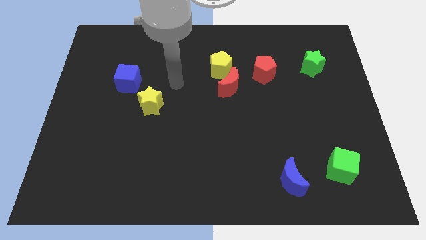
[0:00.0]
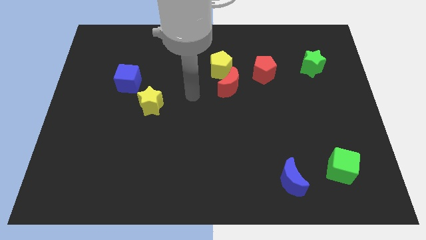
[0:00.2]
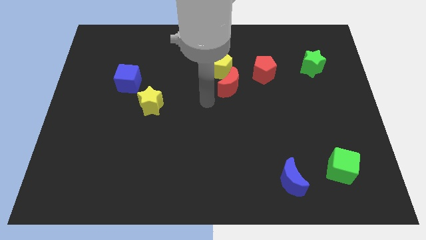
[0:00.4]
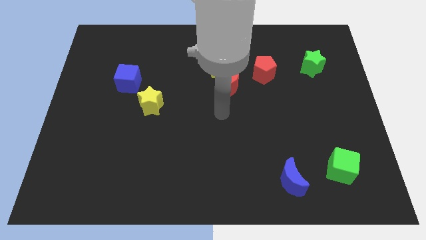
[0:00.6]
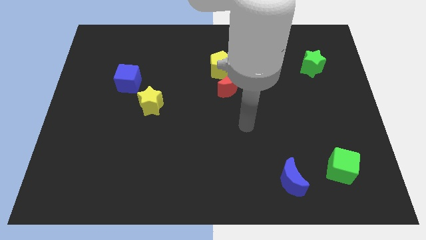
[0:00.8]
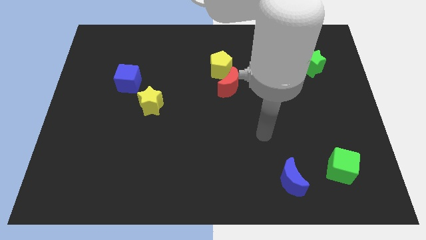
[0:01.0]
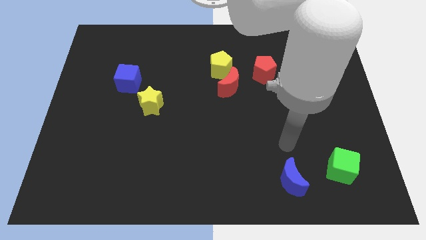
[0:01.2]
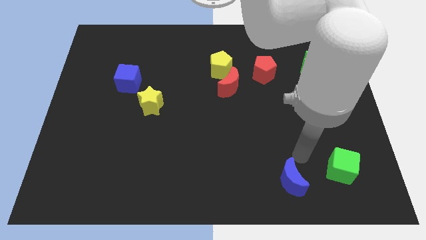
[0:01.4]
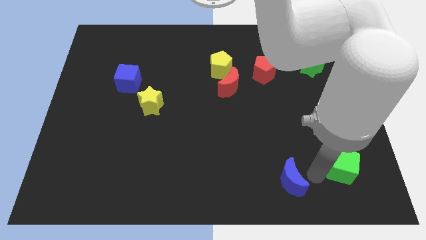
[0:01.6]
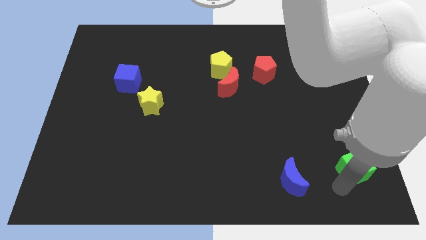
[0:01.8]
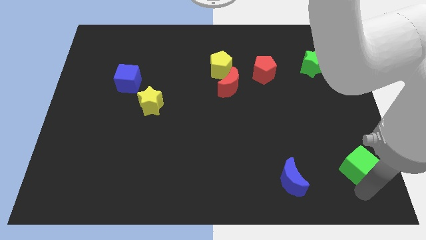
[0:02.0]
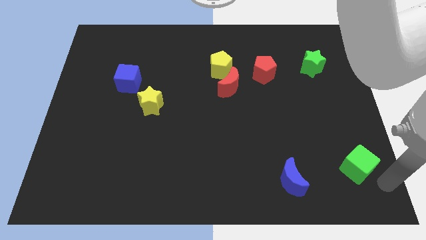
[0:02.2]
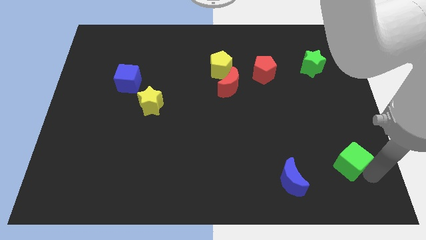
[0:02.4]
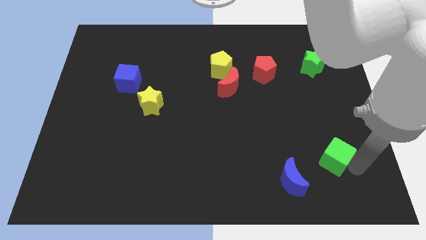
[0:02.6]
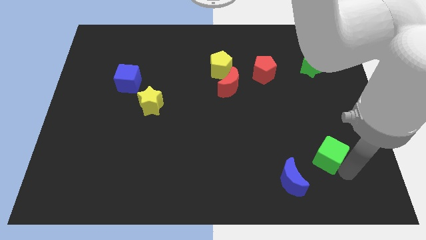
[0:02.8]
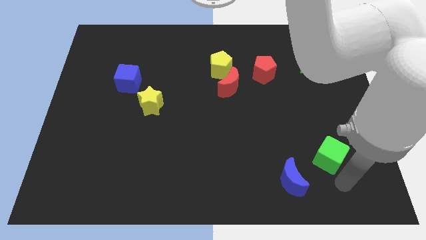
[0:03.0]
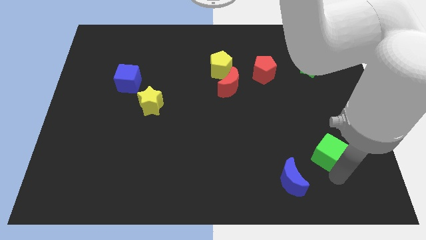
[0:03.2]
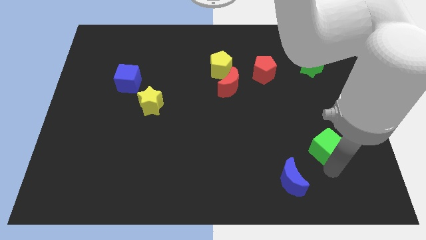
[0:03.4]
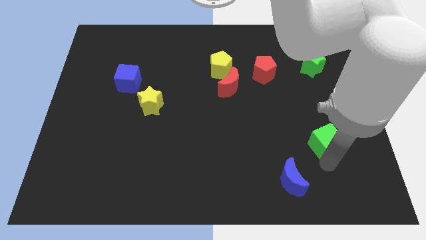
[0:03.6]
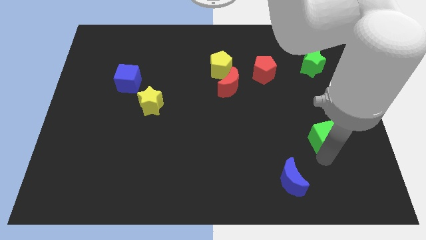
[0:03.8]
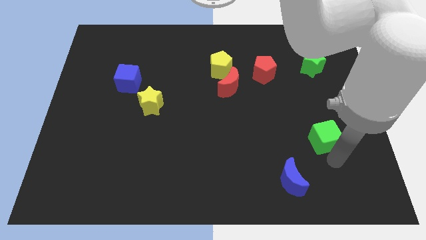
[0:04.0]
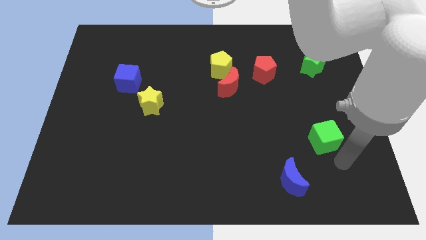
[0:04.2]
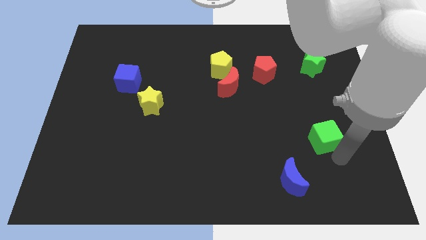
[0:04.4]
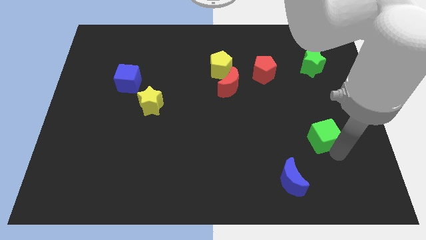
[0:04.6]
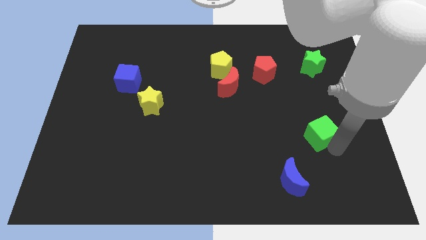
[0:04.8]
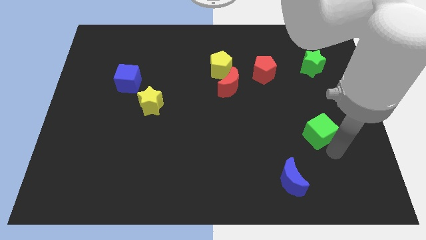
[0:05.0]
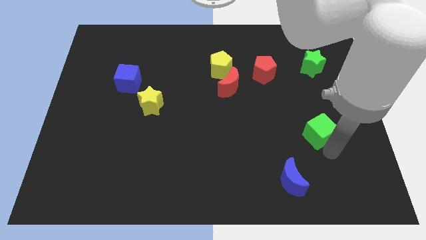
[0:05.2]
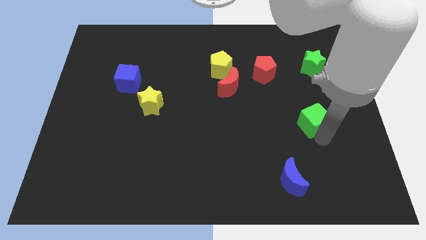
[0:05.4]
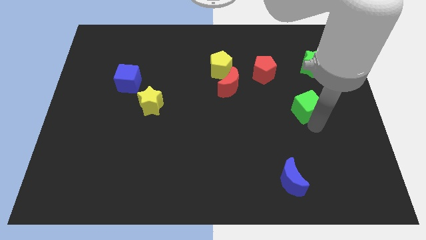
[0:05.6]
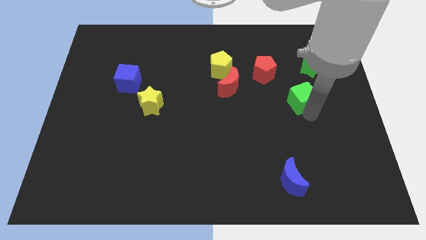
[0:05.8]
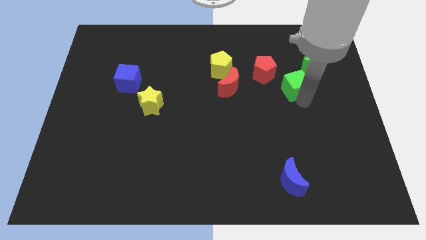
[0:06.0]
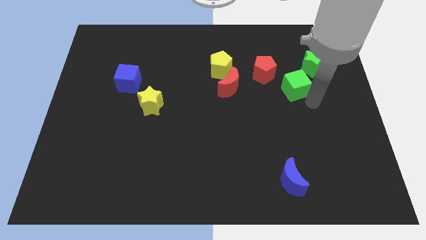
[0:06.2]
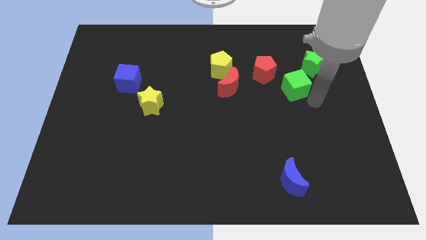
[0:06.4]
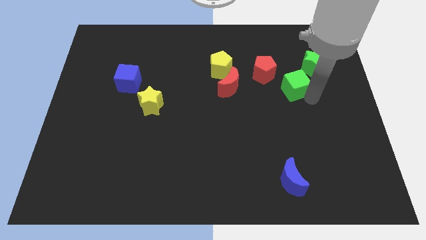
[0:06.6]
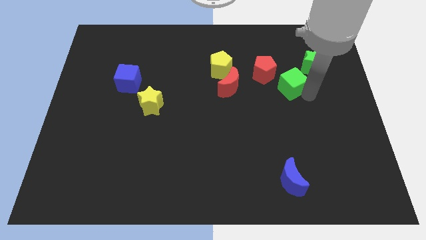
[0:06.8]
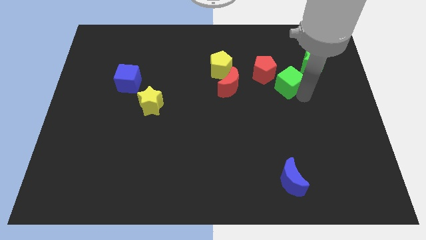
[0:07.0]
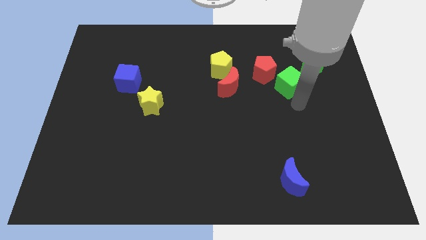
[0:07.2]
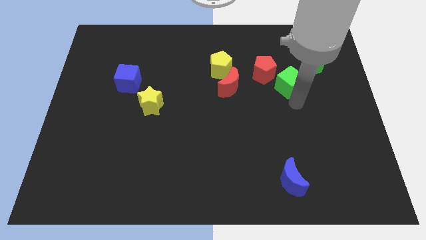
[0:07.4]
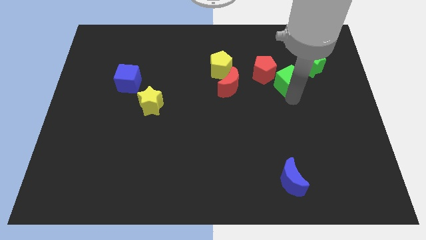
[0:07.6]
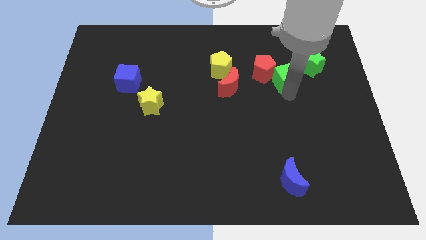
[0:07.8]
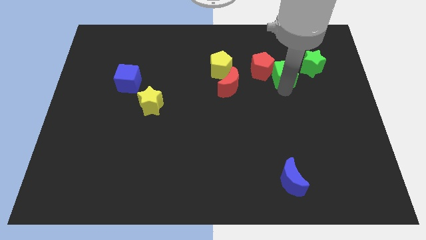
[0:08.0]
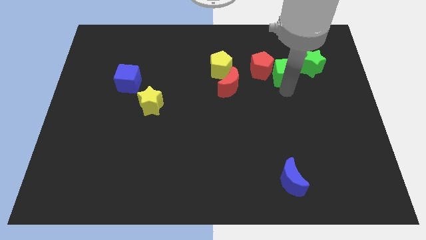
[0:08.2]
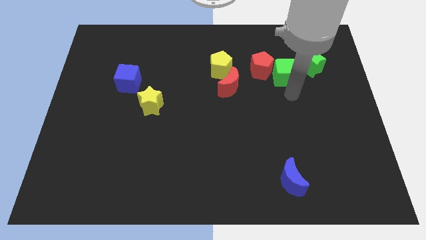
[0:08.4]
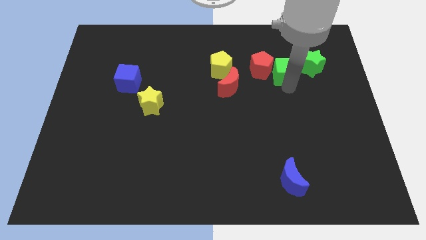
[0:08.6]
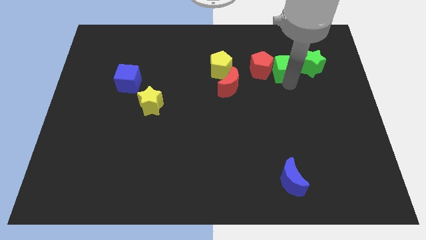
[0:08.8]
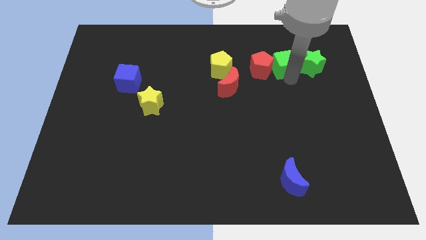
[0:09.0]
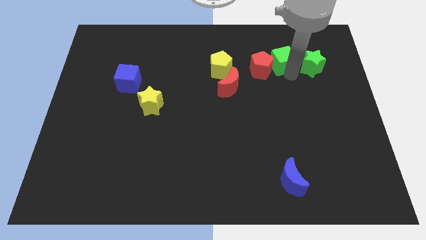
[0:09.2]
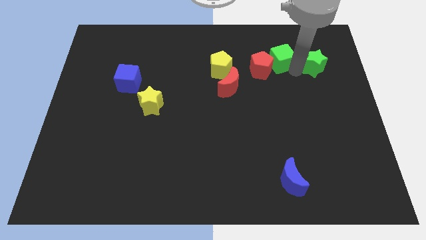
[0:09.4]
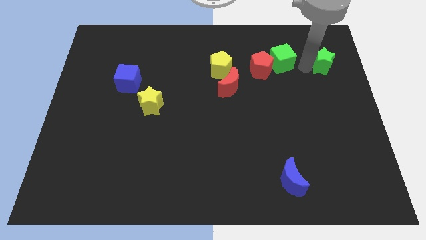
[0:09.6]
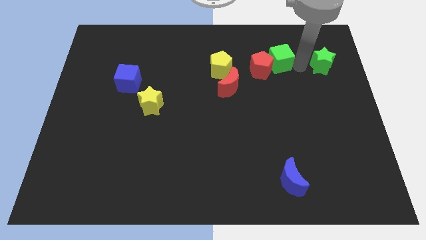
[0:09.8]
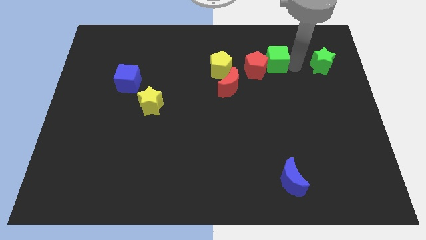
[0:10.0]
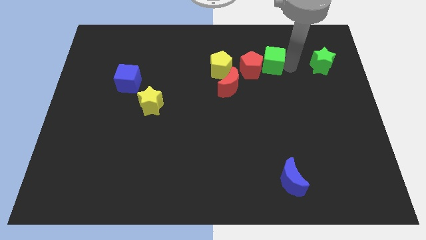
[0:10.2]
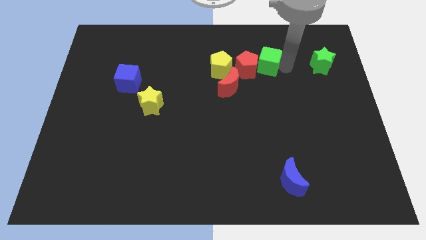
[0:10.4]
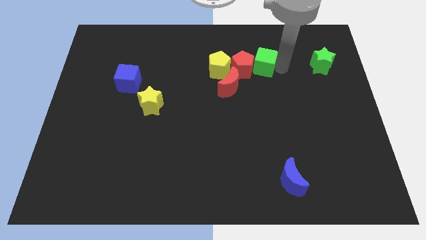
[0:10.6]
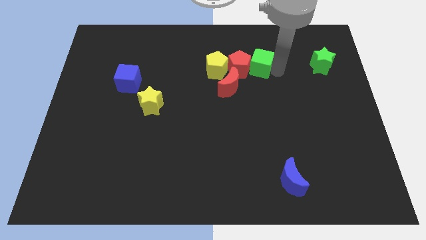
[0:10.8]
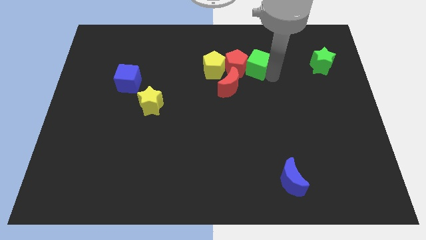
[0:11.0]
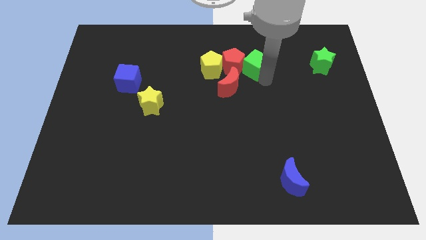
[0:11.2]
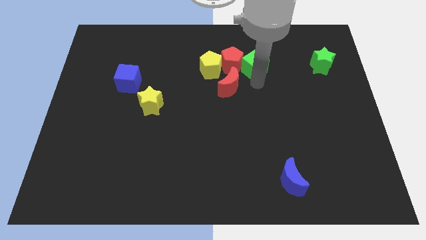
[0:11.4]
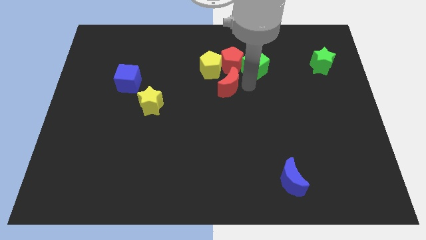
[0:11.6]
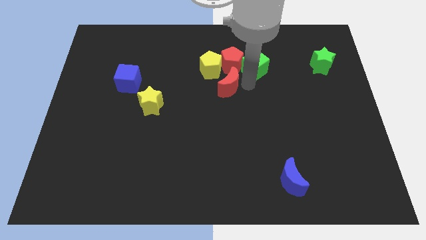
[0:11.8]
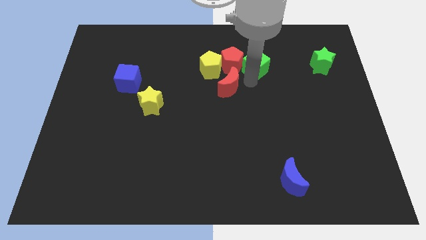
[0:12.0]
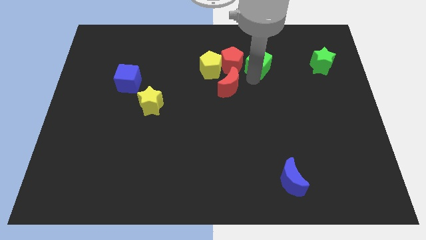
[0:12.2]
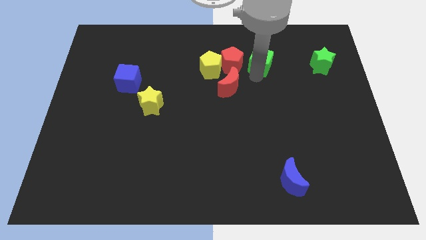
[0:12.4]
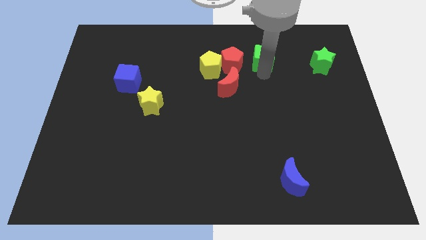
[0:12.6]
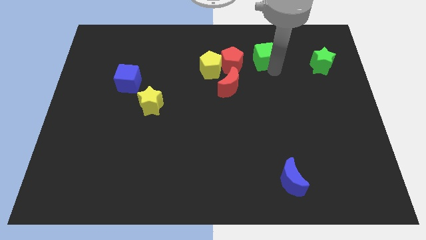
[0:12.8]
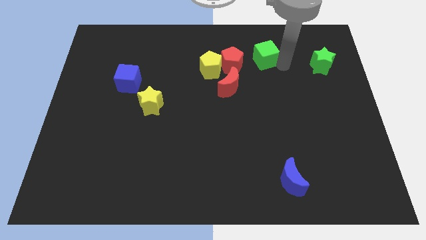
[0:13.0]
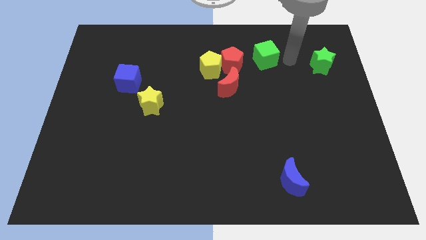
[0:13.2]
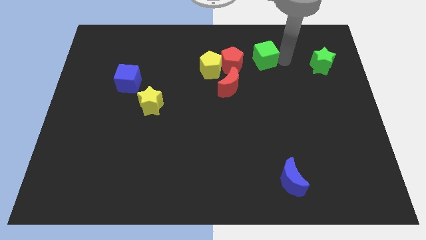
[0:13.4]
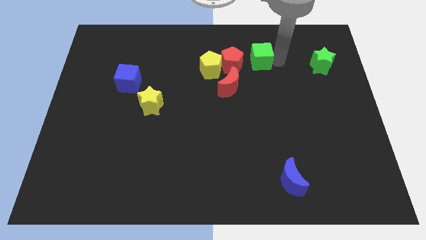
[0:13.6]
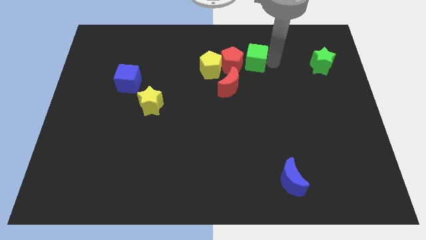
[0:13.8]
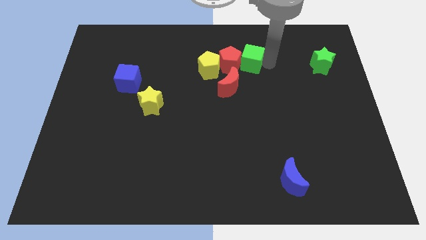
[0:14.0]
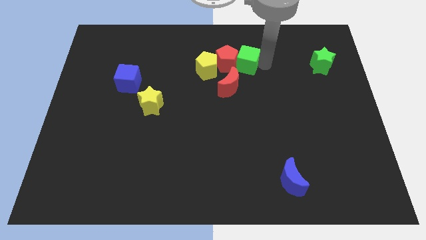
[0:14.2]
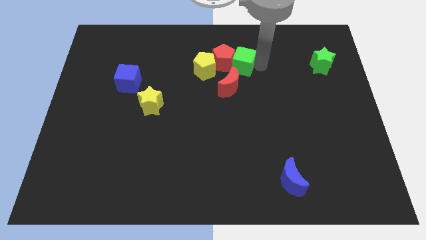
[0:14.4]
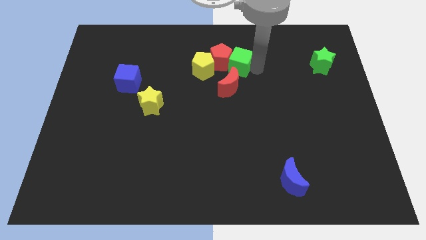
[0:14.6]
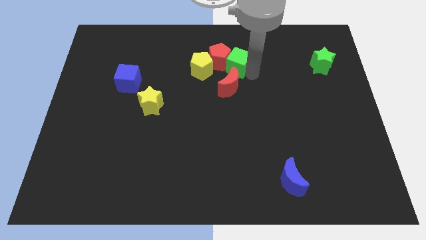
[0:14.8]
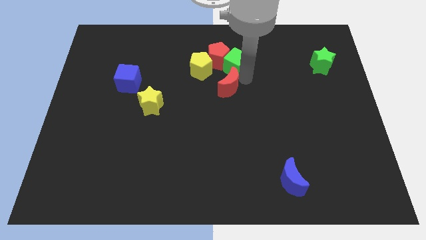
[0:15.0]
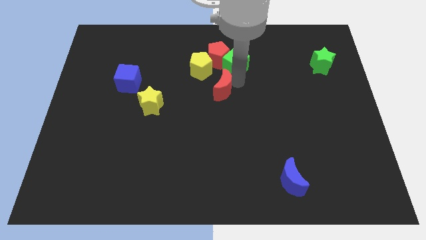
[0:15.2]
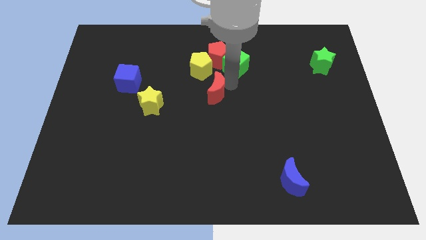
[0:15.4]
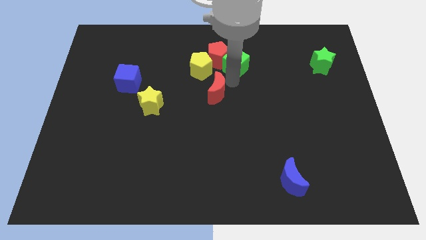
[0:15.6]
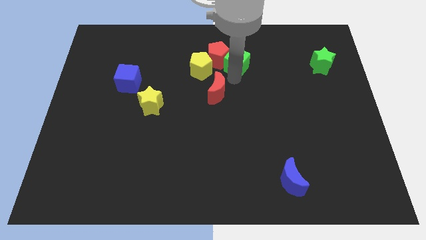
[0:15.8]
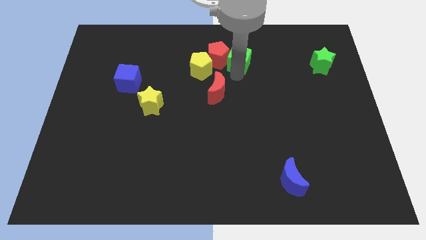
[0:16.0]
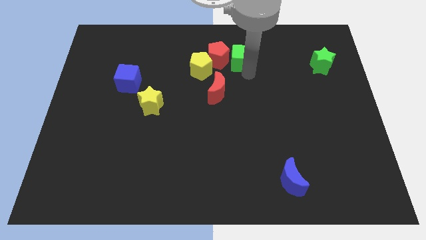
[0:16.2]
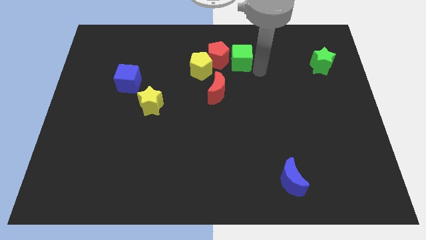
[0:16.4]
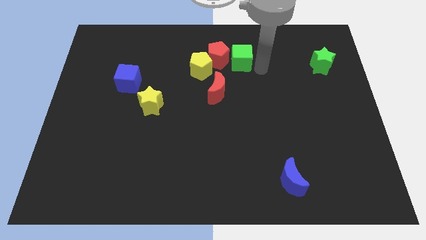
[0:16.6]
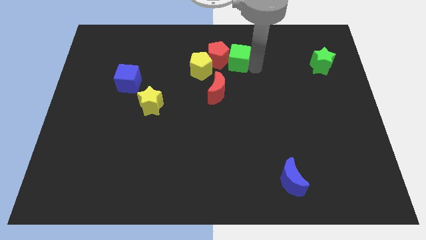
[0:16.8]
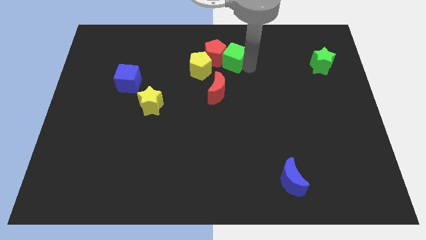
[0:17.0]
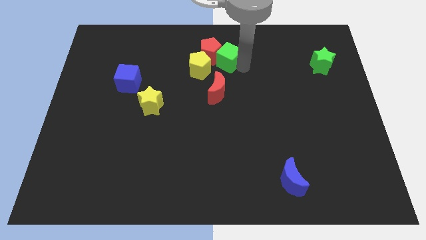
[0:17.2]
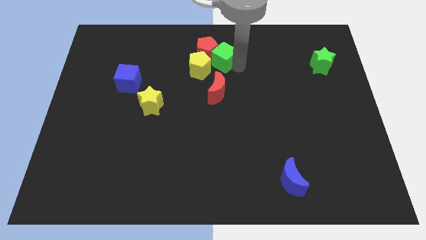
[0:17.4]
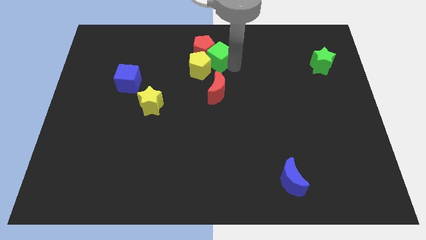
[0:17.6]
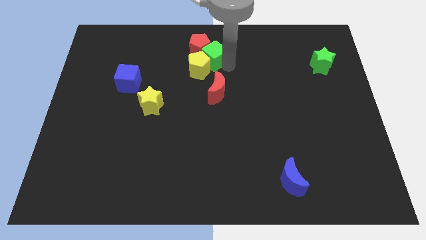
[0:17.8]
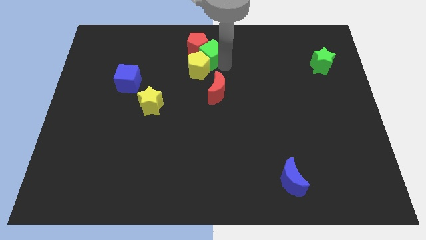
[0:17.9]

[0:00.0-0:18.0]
slide the green cube to the top
